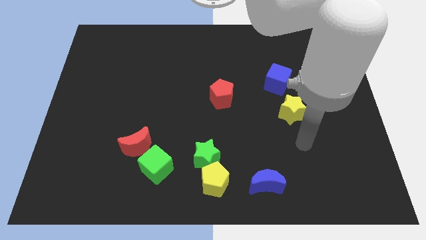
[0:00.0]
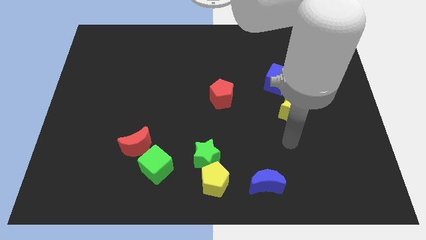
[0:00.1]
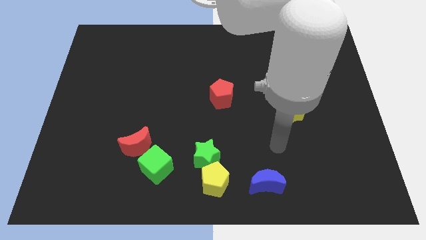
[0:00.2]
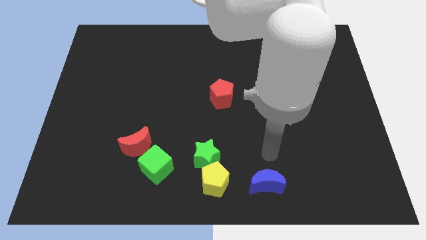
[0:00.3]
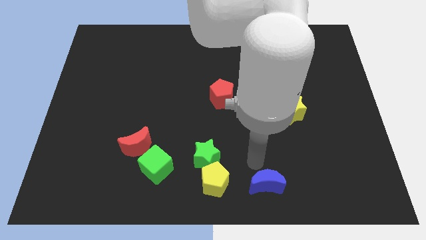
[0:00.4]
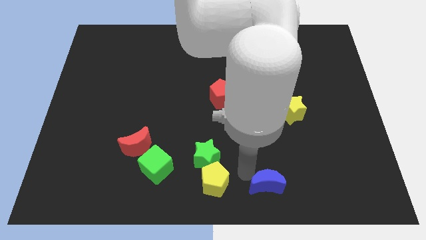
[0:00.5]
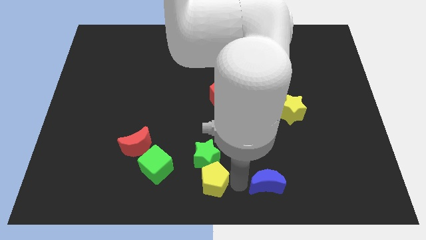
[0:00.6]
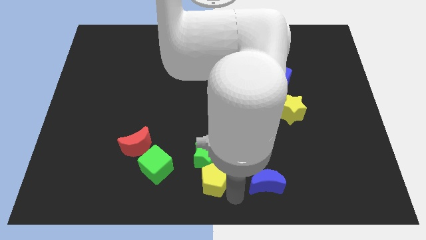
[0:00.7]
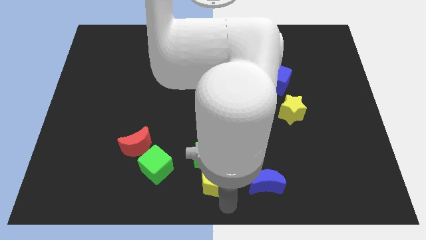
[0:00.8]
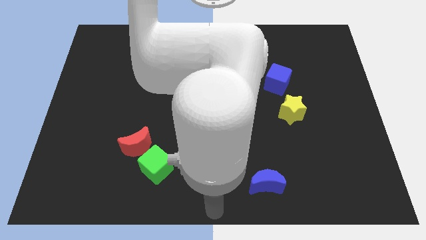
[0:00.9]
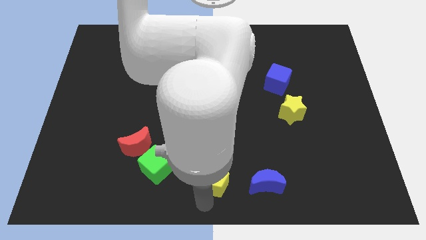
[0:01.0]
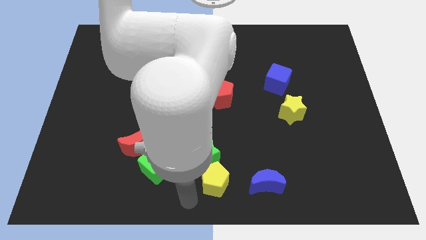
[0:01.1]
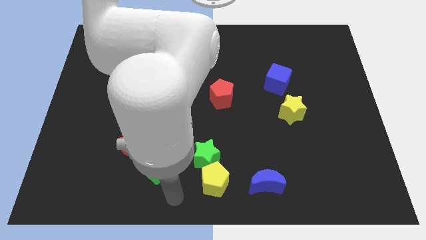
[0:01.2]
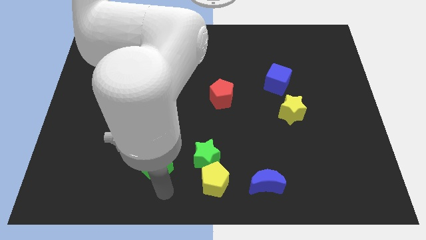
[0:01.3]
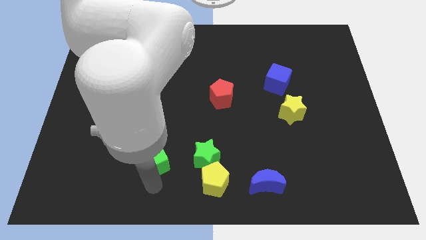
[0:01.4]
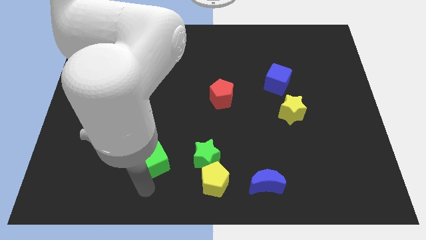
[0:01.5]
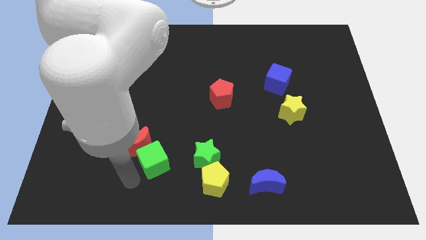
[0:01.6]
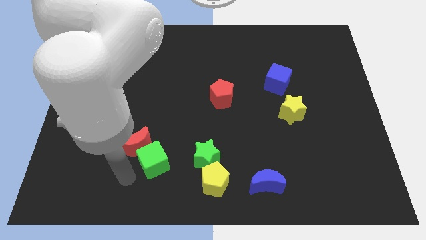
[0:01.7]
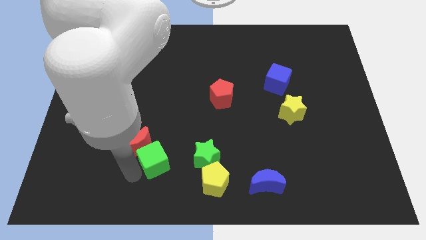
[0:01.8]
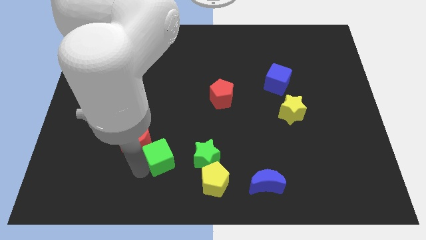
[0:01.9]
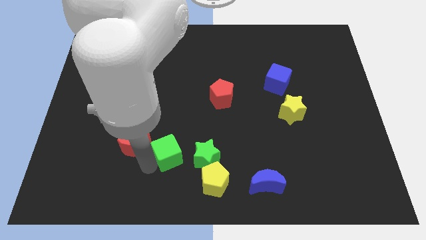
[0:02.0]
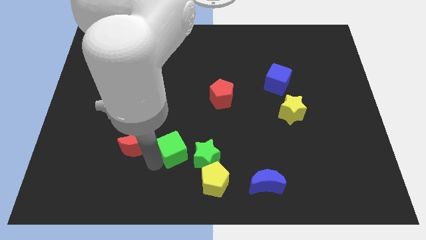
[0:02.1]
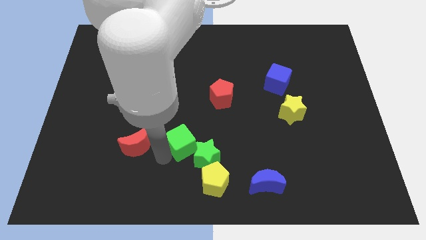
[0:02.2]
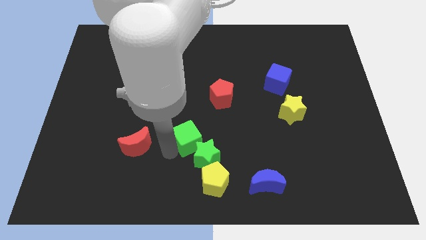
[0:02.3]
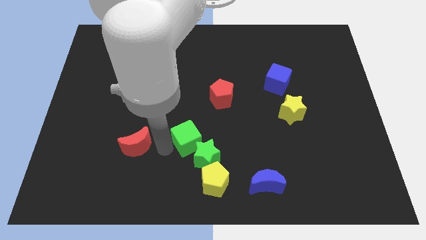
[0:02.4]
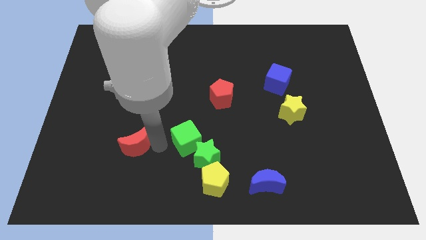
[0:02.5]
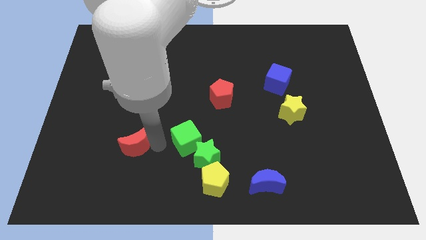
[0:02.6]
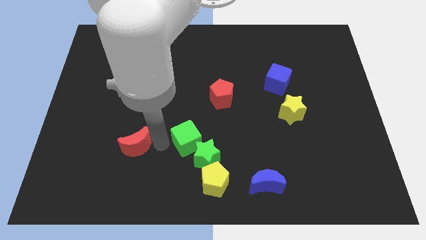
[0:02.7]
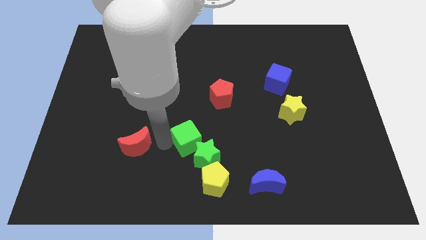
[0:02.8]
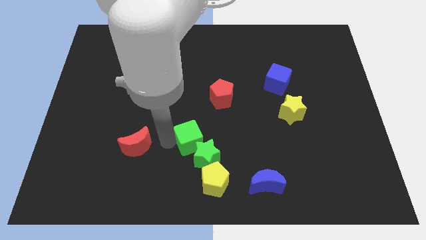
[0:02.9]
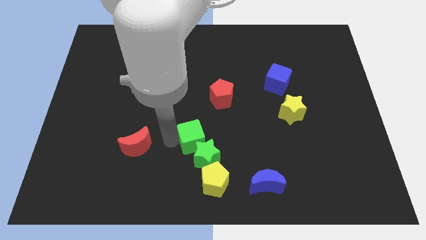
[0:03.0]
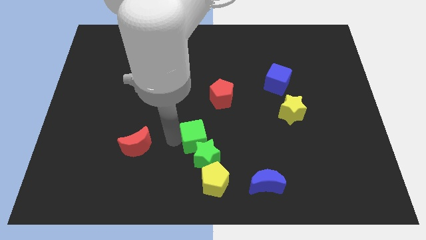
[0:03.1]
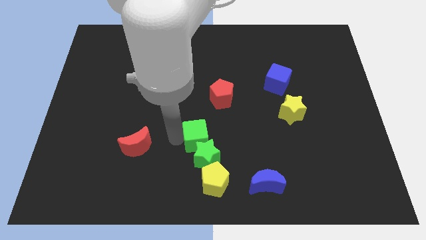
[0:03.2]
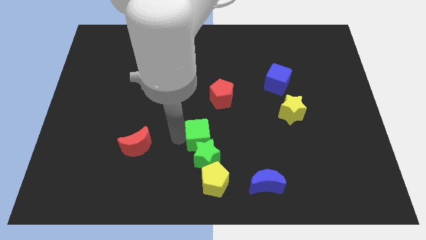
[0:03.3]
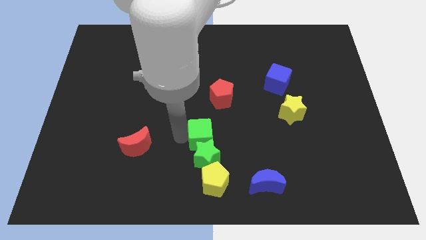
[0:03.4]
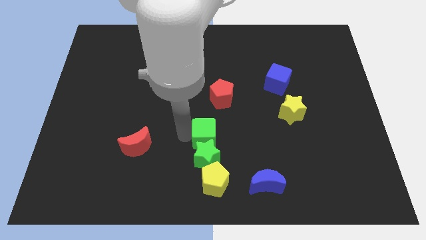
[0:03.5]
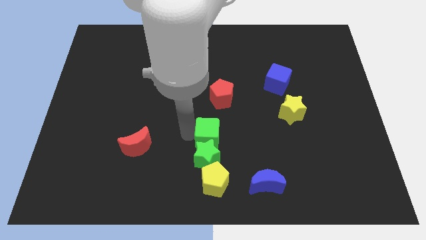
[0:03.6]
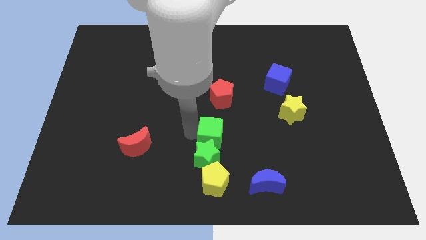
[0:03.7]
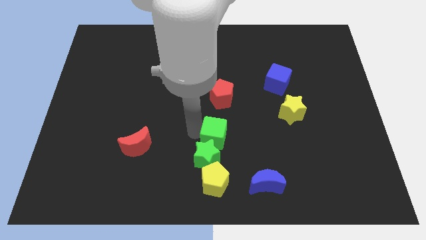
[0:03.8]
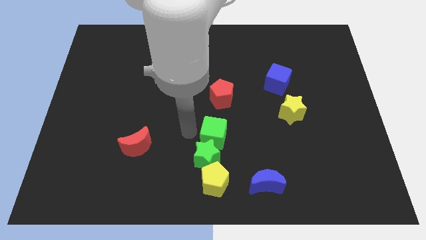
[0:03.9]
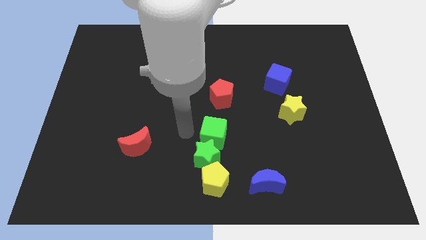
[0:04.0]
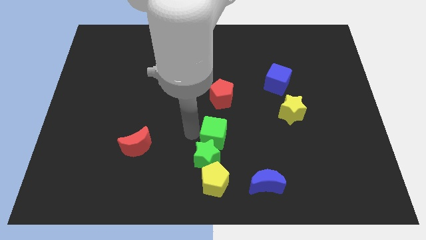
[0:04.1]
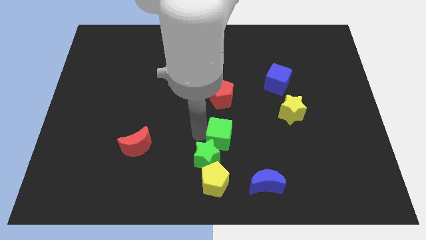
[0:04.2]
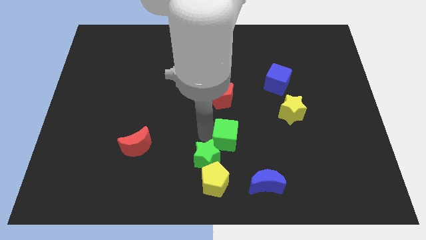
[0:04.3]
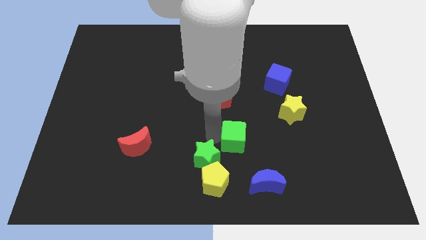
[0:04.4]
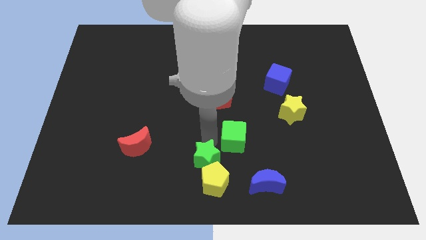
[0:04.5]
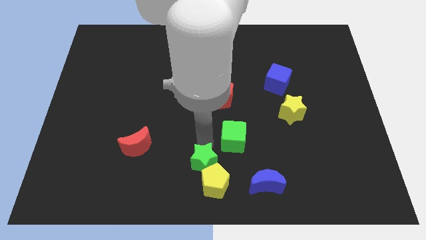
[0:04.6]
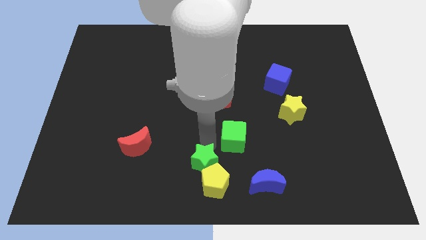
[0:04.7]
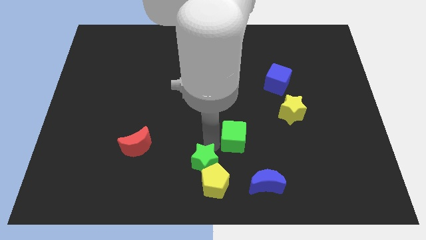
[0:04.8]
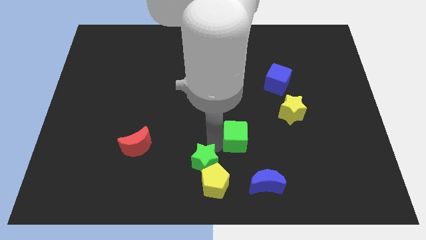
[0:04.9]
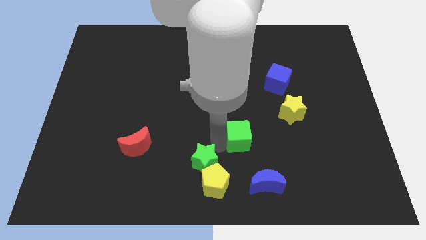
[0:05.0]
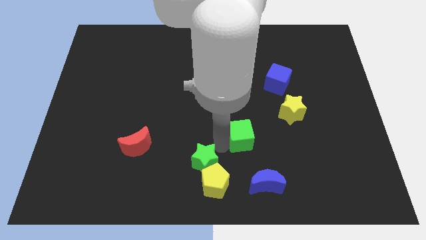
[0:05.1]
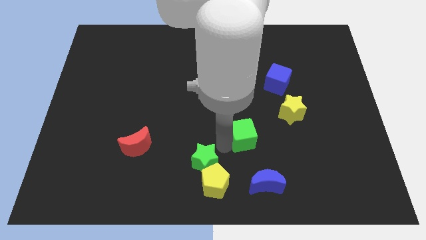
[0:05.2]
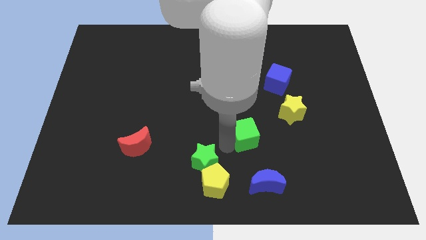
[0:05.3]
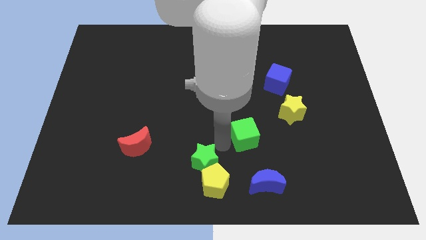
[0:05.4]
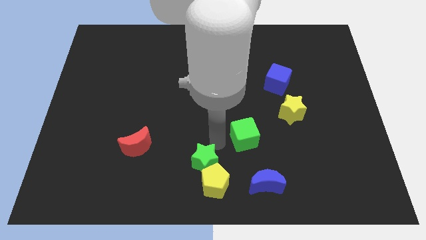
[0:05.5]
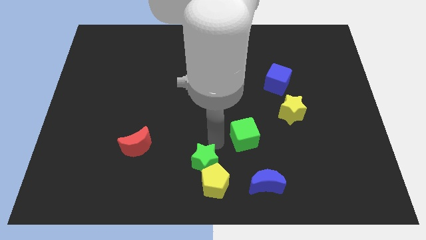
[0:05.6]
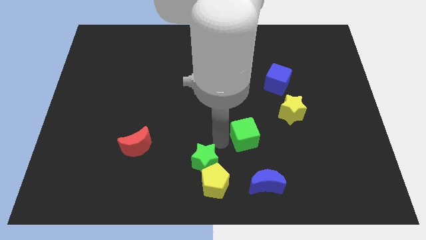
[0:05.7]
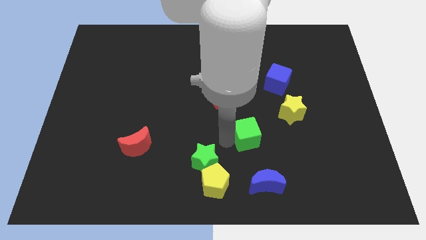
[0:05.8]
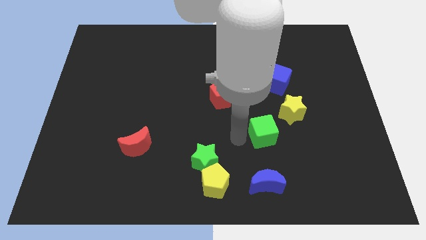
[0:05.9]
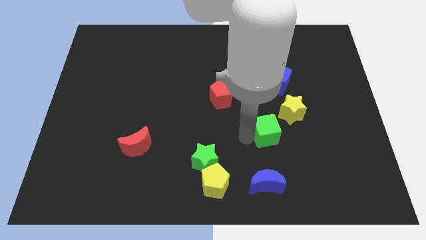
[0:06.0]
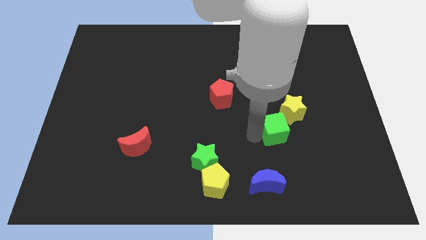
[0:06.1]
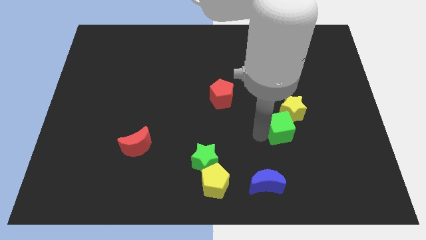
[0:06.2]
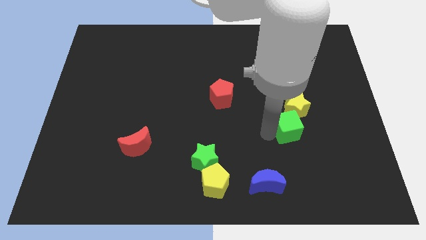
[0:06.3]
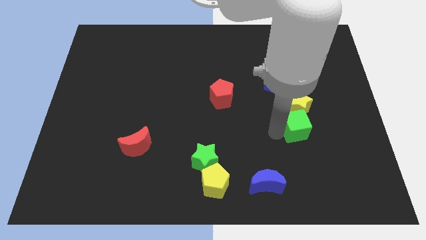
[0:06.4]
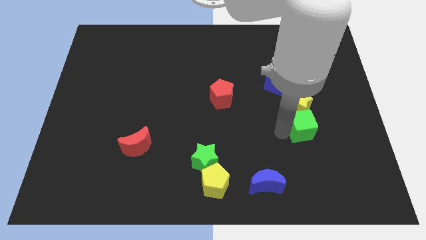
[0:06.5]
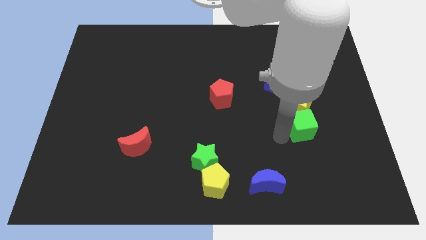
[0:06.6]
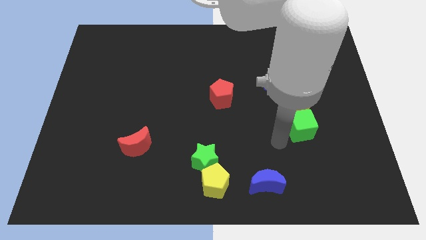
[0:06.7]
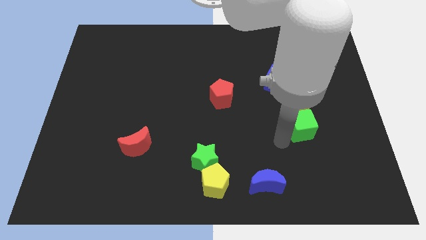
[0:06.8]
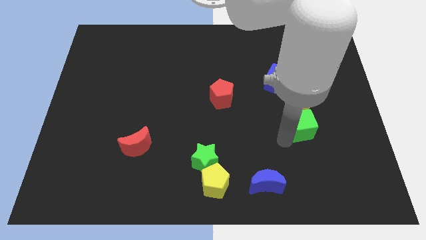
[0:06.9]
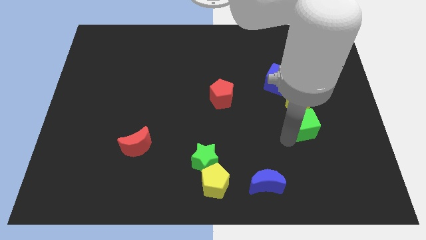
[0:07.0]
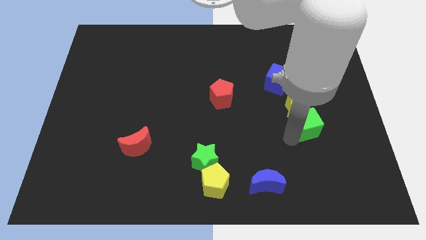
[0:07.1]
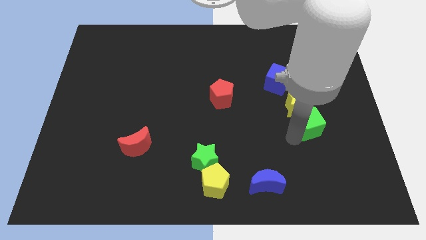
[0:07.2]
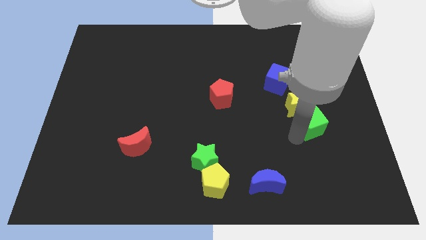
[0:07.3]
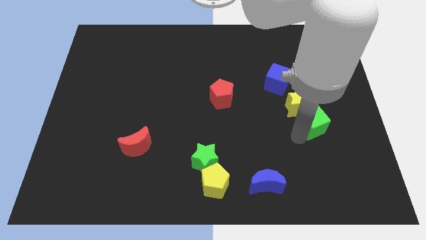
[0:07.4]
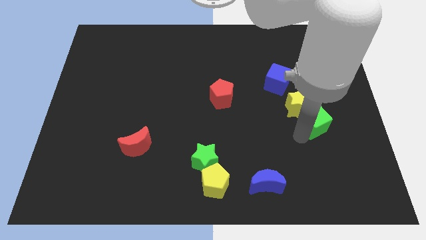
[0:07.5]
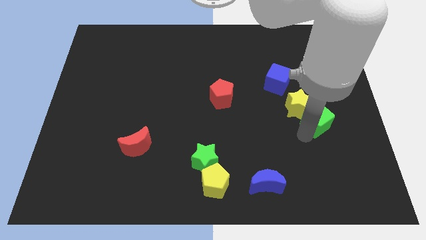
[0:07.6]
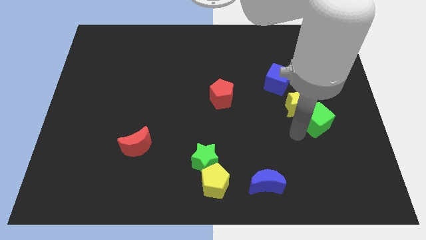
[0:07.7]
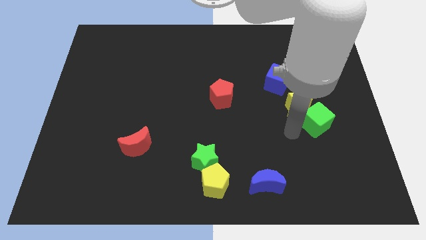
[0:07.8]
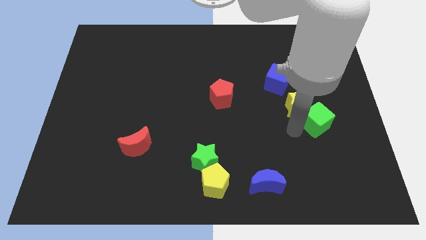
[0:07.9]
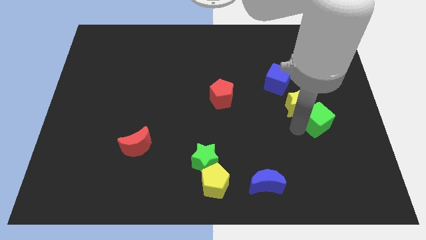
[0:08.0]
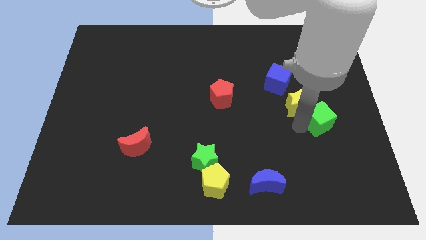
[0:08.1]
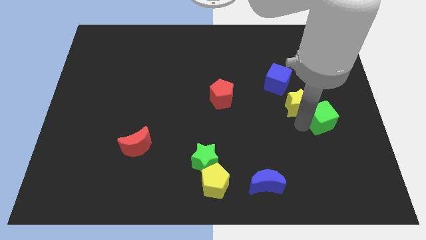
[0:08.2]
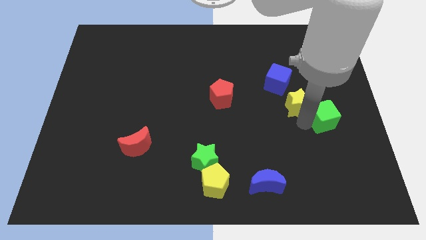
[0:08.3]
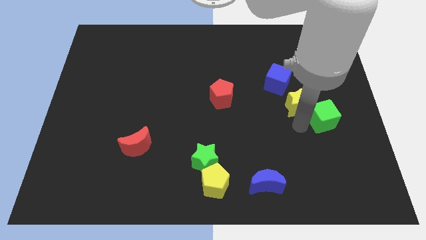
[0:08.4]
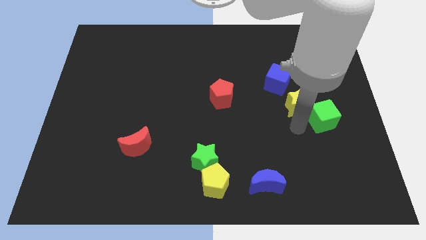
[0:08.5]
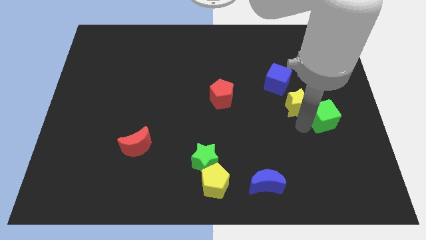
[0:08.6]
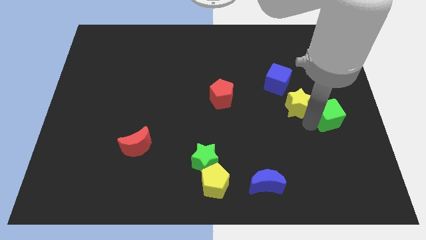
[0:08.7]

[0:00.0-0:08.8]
put the green cube to the right side of the board
